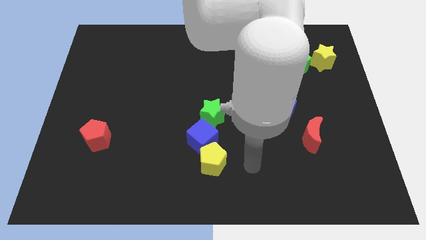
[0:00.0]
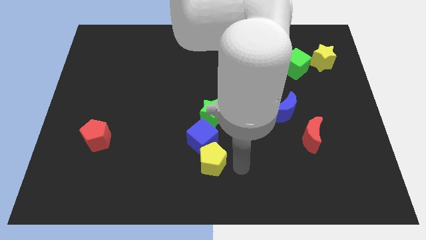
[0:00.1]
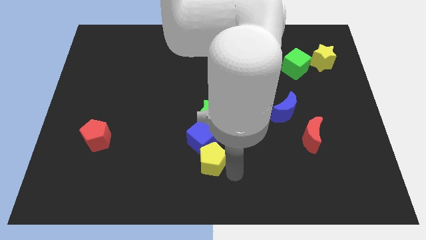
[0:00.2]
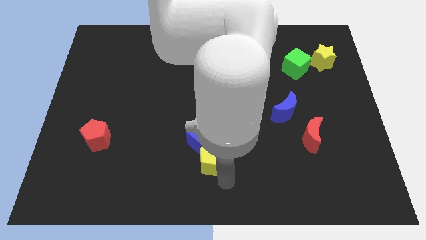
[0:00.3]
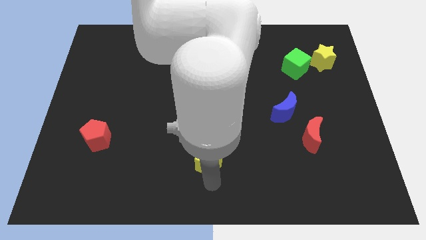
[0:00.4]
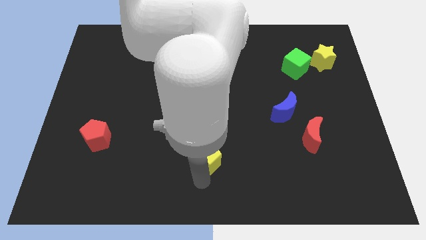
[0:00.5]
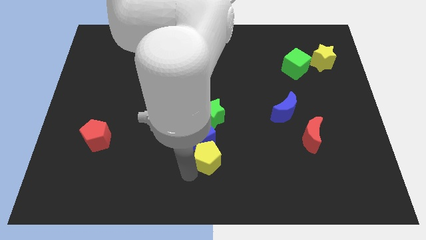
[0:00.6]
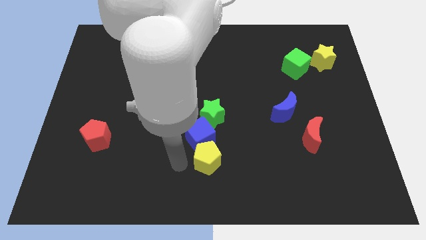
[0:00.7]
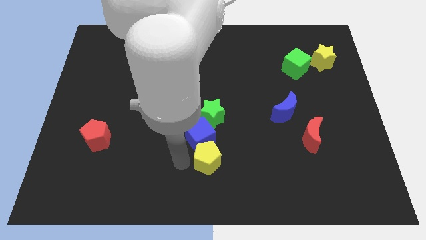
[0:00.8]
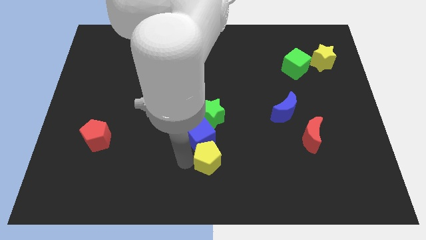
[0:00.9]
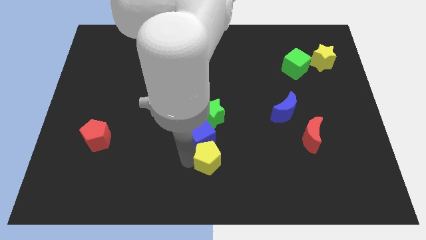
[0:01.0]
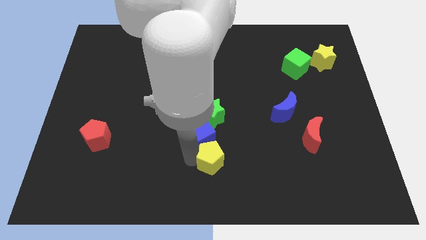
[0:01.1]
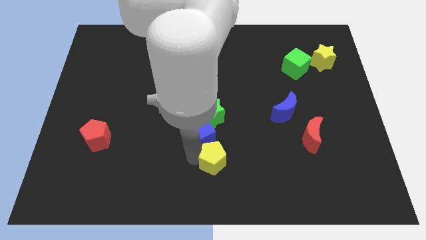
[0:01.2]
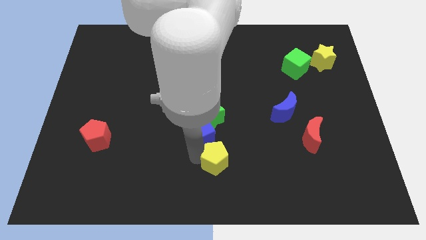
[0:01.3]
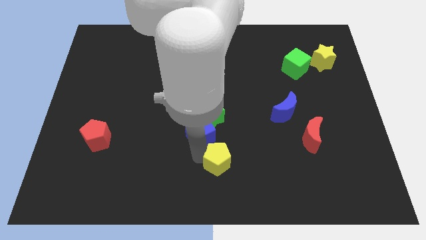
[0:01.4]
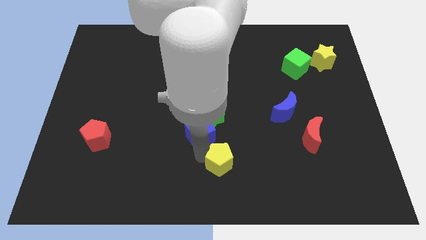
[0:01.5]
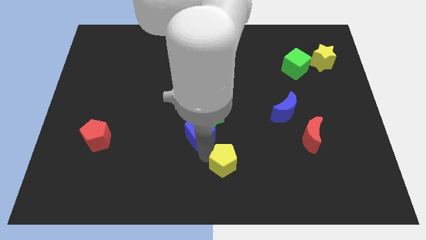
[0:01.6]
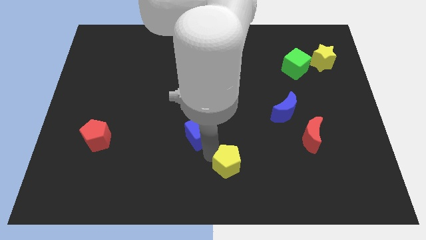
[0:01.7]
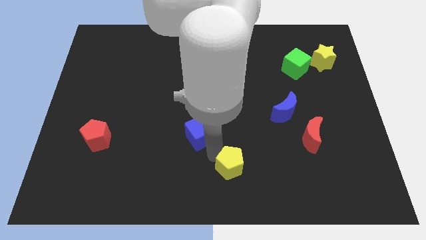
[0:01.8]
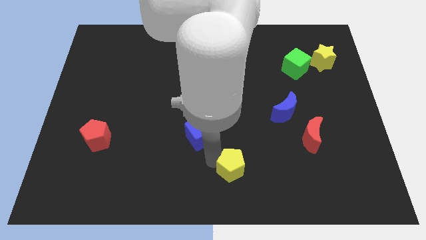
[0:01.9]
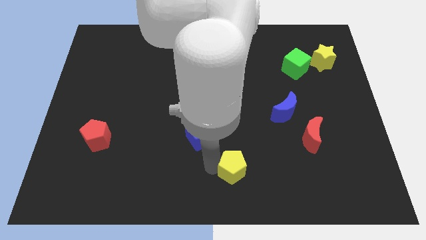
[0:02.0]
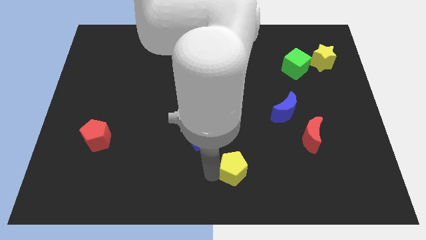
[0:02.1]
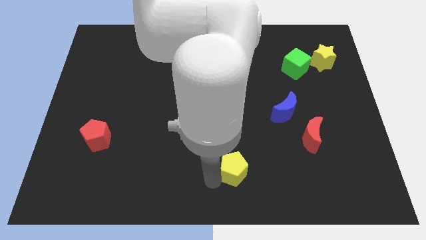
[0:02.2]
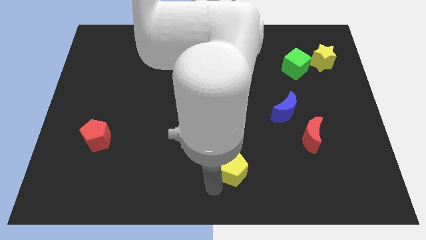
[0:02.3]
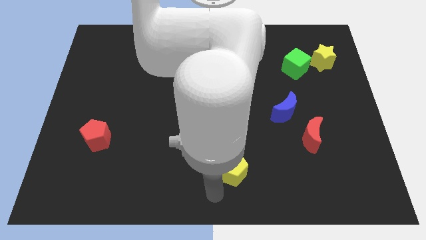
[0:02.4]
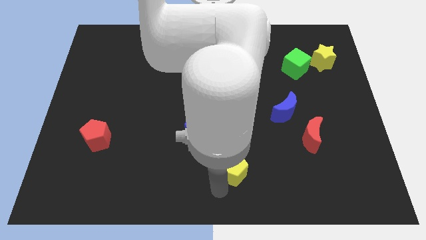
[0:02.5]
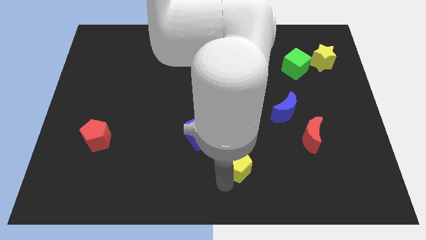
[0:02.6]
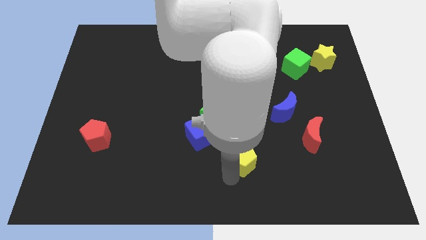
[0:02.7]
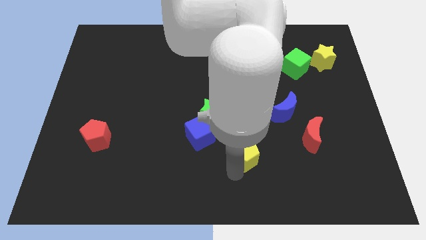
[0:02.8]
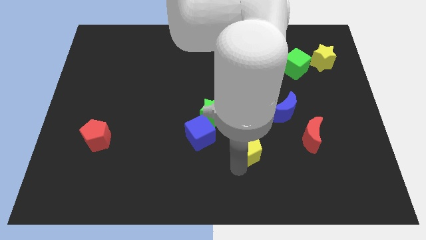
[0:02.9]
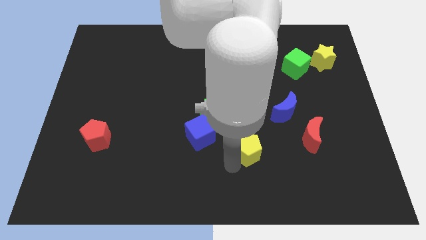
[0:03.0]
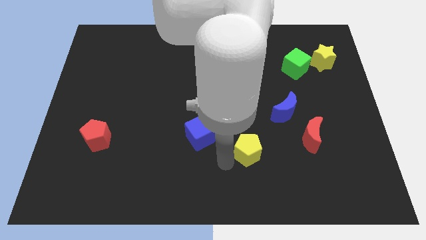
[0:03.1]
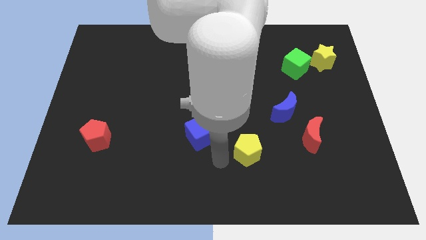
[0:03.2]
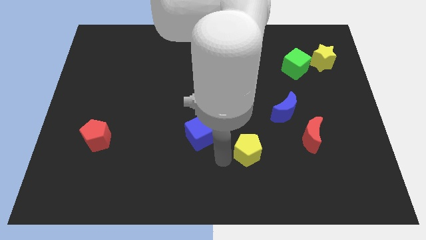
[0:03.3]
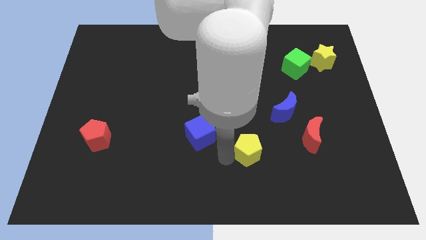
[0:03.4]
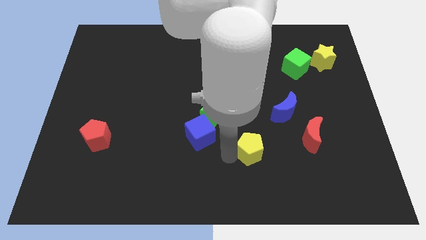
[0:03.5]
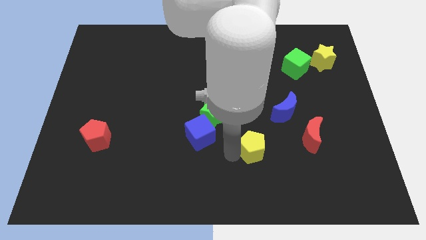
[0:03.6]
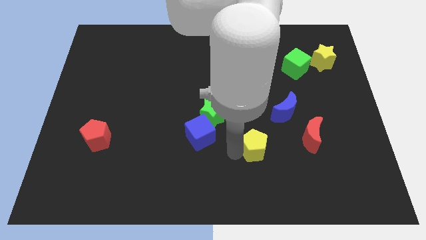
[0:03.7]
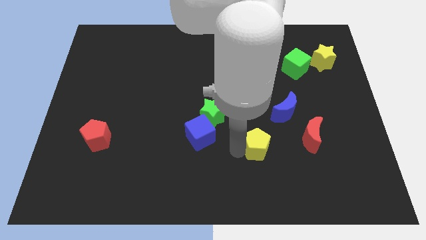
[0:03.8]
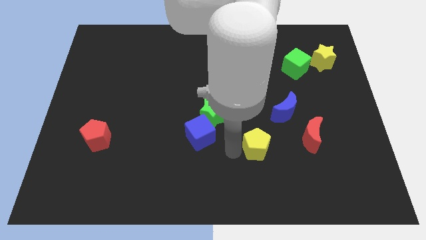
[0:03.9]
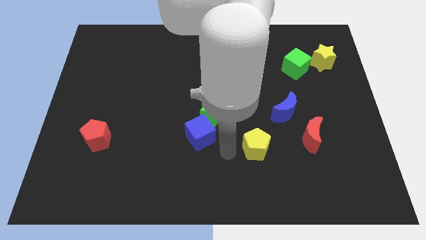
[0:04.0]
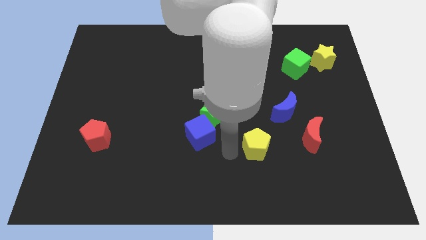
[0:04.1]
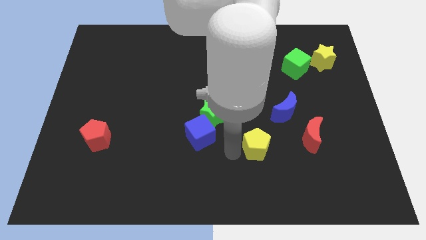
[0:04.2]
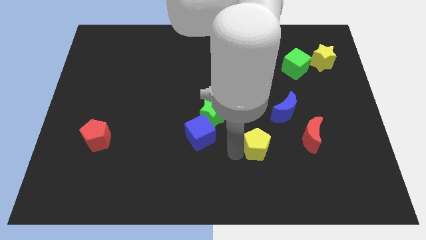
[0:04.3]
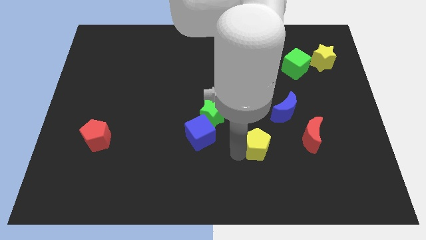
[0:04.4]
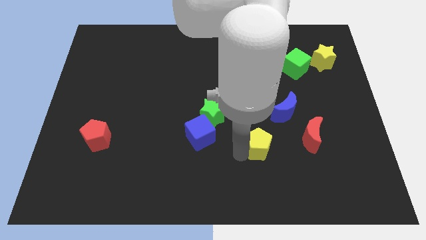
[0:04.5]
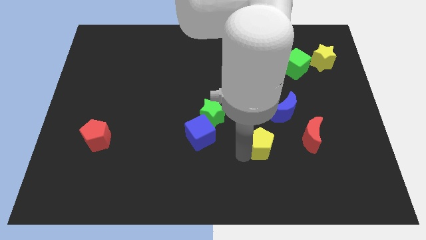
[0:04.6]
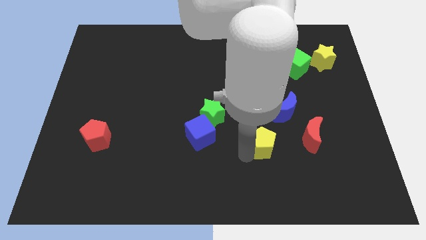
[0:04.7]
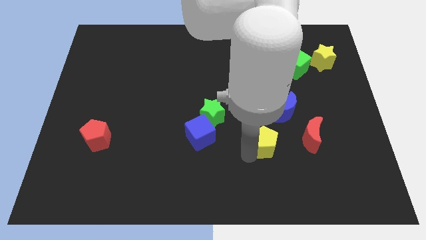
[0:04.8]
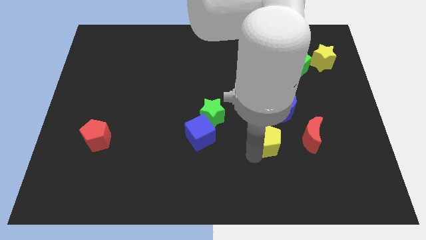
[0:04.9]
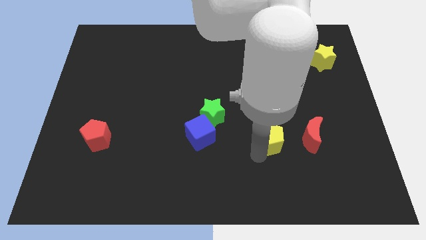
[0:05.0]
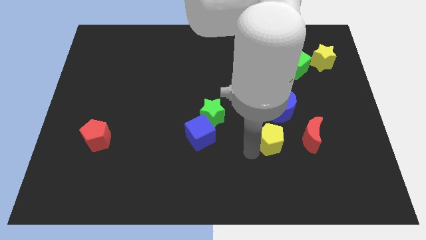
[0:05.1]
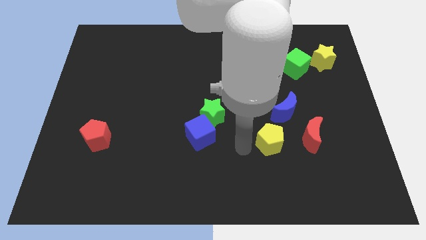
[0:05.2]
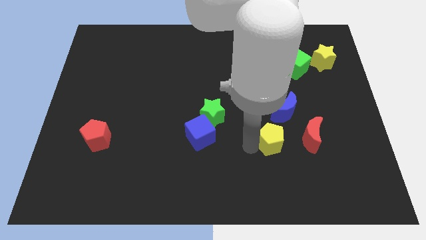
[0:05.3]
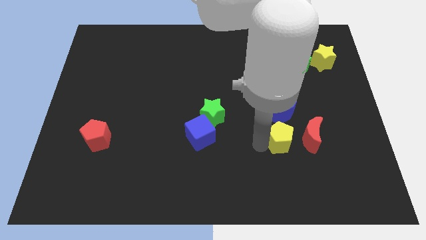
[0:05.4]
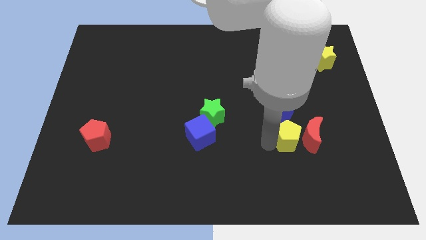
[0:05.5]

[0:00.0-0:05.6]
push the yellow pentagon to the red moon

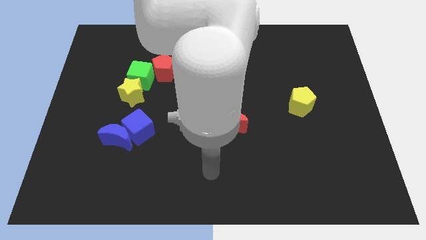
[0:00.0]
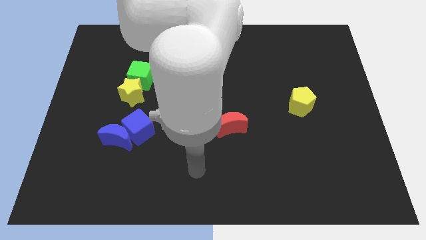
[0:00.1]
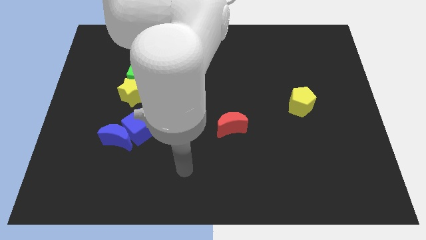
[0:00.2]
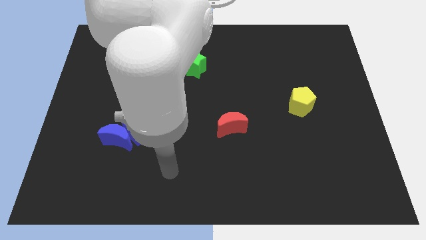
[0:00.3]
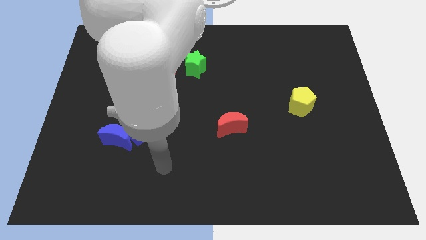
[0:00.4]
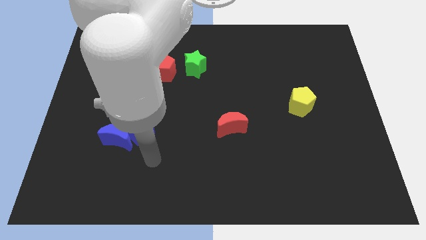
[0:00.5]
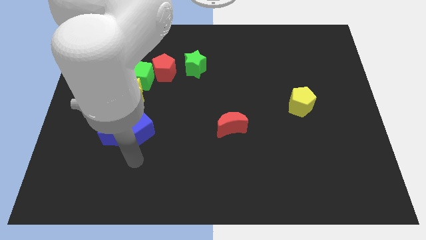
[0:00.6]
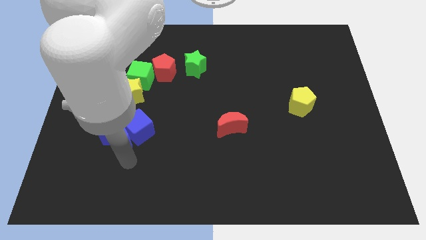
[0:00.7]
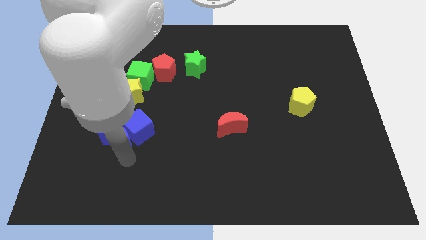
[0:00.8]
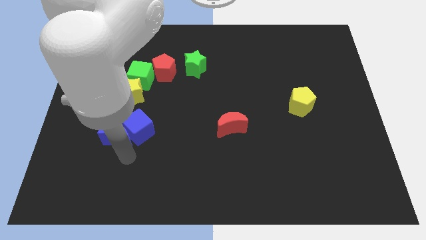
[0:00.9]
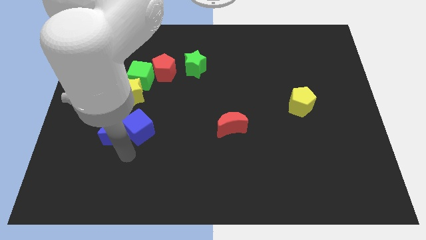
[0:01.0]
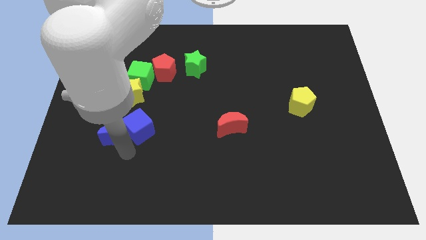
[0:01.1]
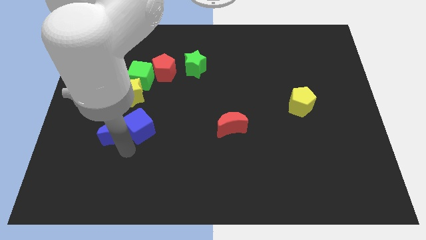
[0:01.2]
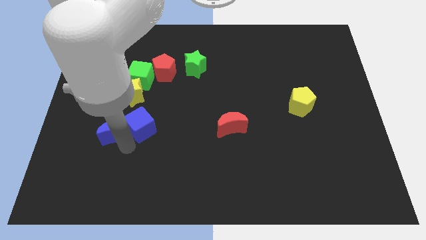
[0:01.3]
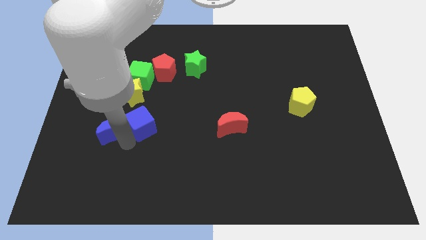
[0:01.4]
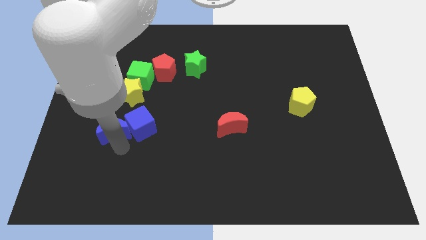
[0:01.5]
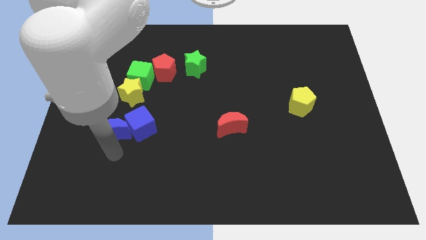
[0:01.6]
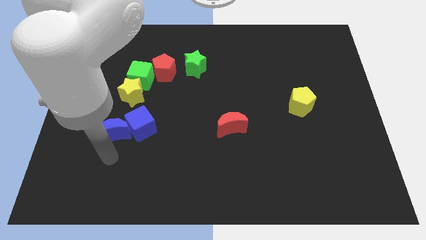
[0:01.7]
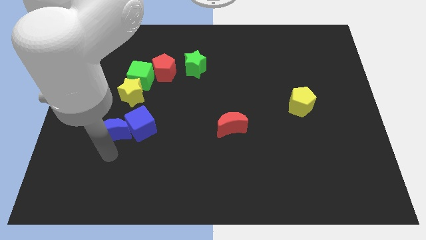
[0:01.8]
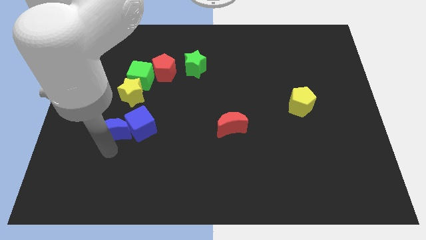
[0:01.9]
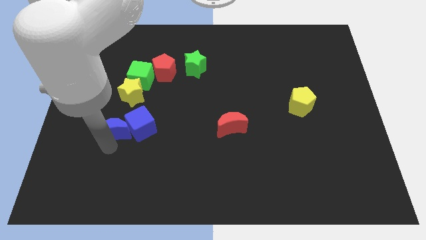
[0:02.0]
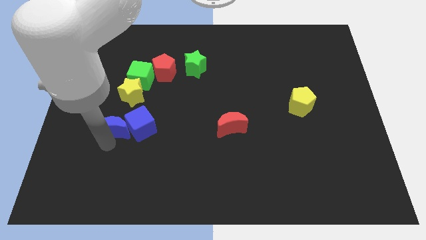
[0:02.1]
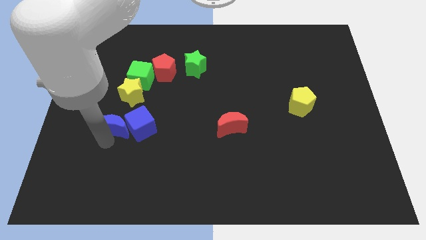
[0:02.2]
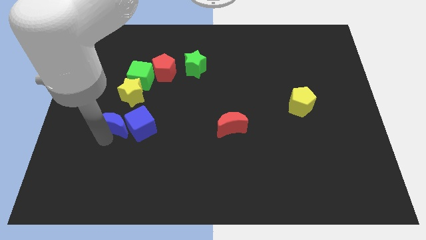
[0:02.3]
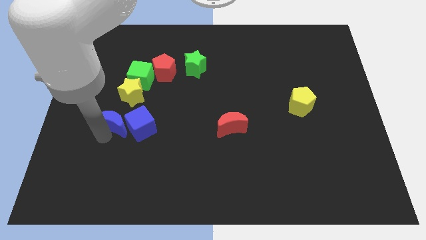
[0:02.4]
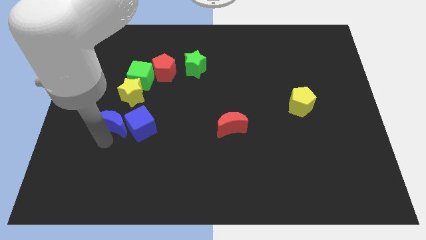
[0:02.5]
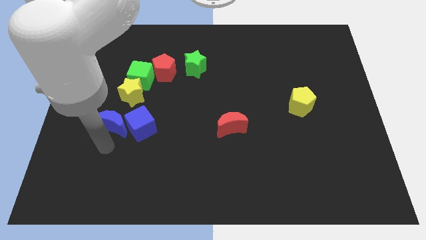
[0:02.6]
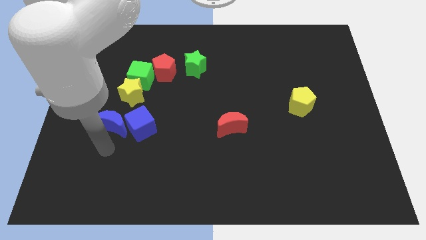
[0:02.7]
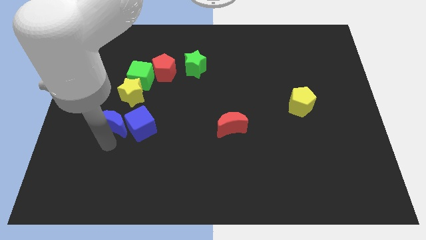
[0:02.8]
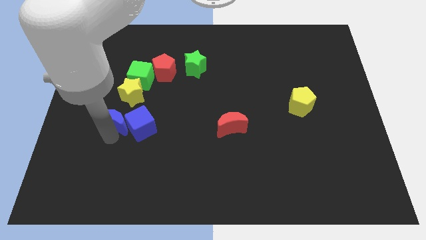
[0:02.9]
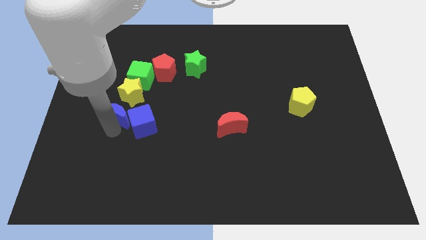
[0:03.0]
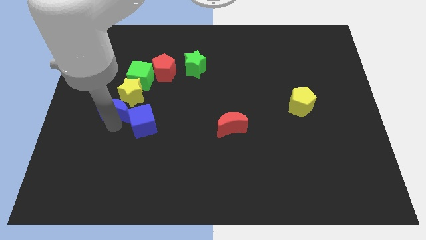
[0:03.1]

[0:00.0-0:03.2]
put the blue moon close to the yellow star
